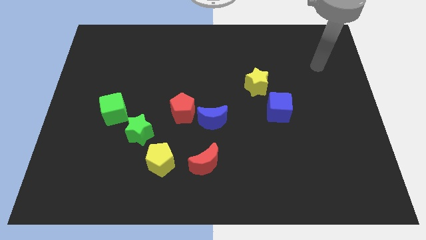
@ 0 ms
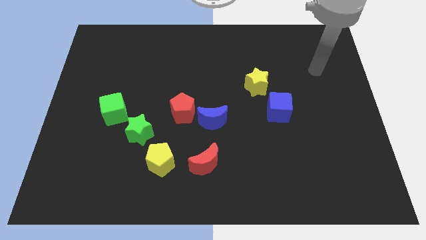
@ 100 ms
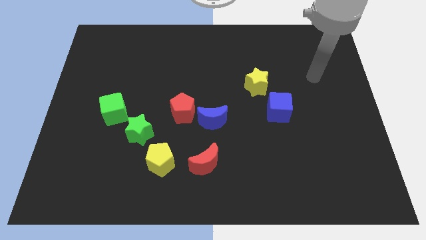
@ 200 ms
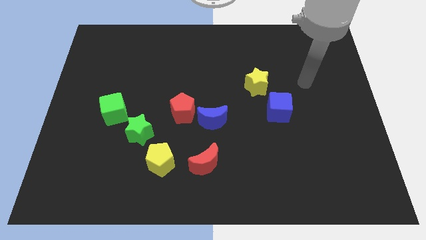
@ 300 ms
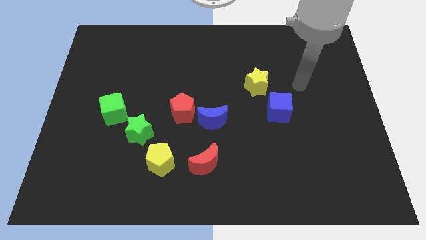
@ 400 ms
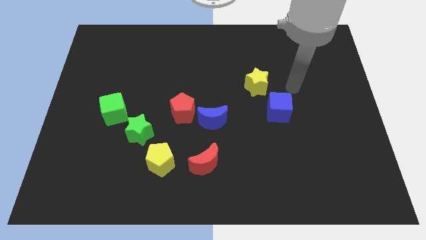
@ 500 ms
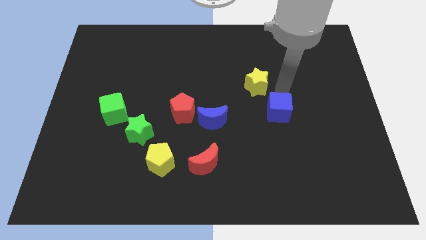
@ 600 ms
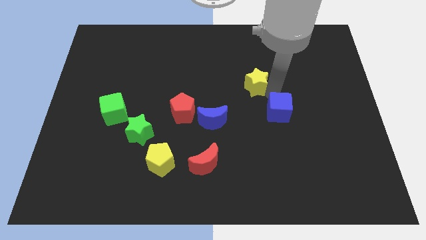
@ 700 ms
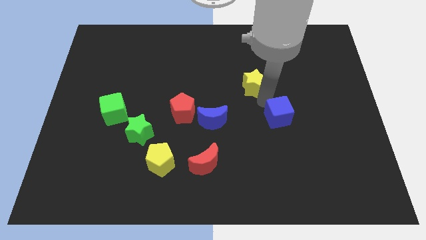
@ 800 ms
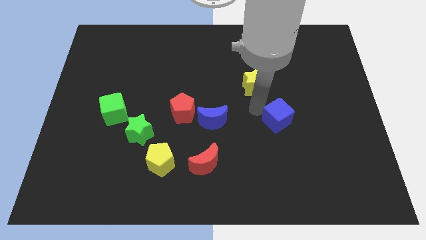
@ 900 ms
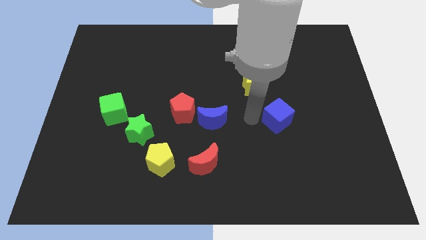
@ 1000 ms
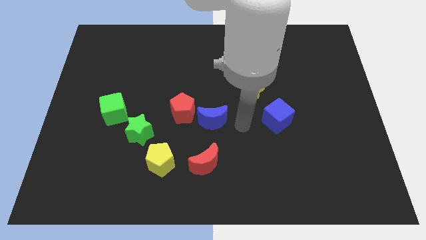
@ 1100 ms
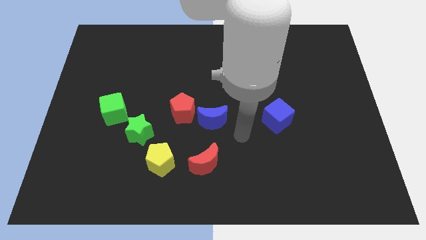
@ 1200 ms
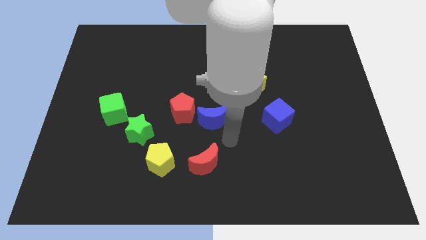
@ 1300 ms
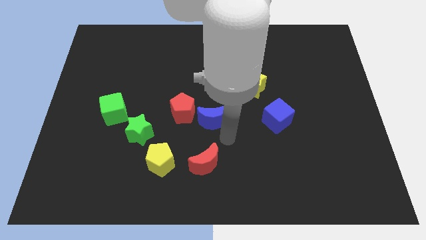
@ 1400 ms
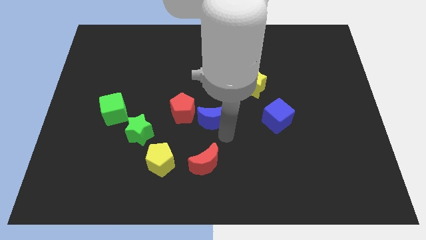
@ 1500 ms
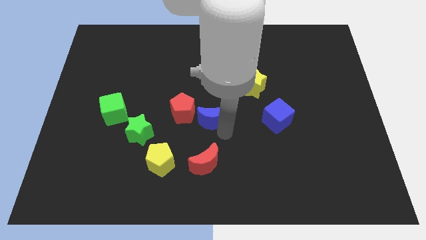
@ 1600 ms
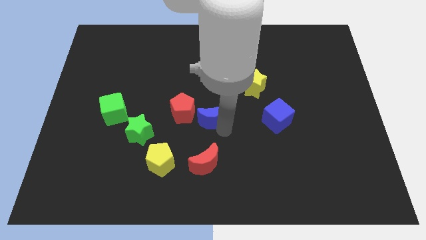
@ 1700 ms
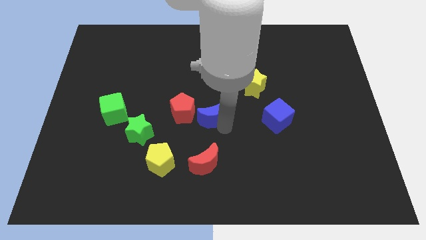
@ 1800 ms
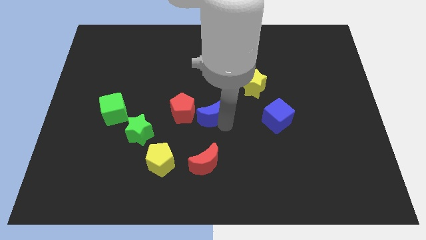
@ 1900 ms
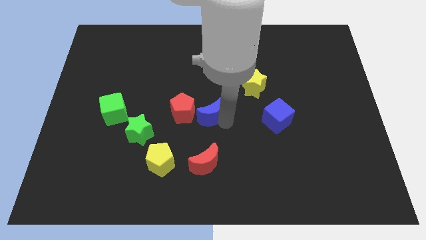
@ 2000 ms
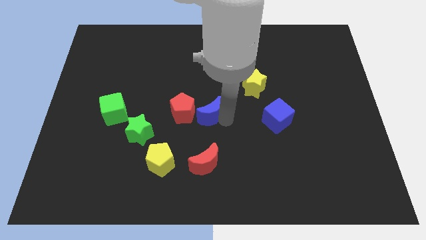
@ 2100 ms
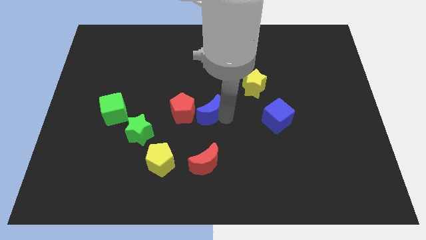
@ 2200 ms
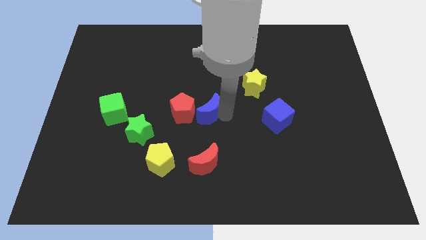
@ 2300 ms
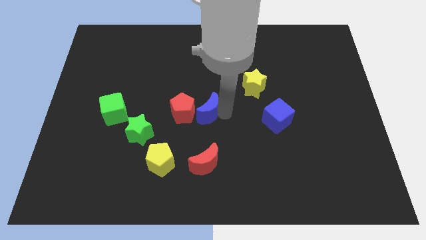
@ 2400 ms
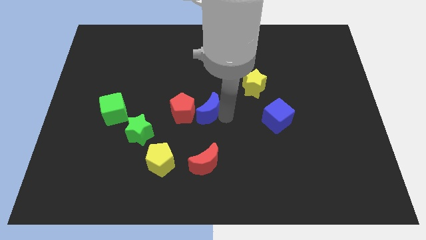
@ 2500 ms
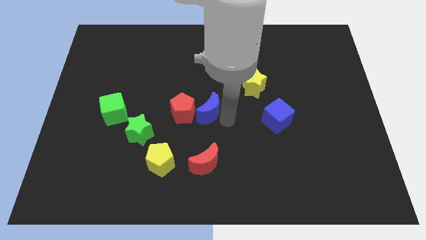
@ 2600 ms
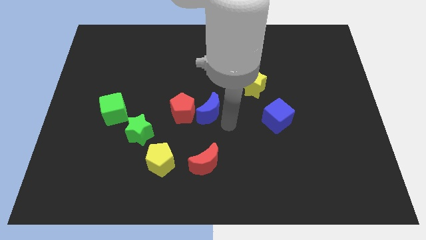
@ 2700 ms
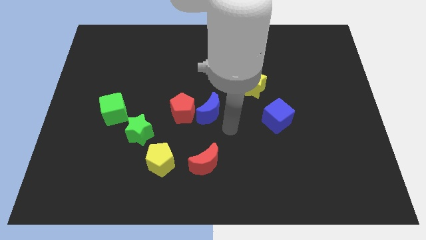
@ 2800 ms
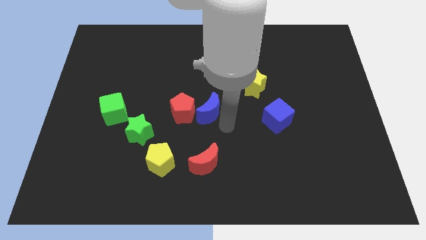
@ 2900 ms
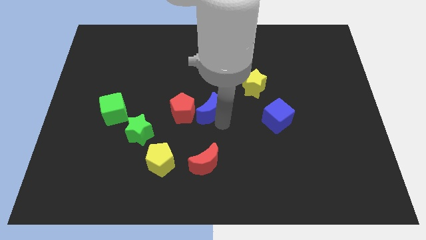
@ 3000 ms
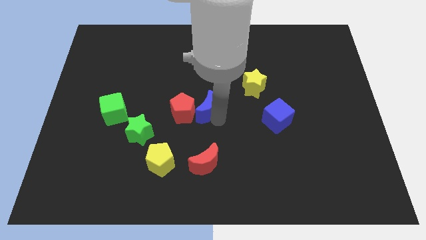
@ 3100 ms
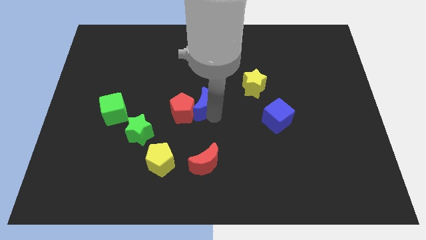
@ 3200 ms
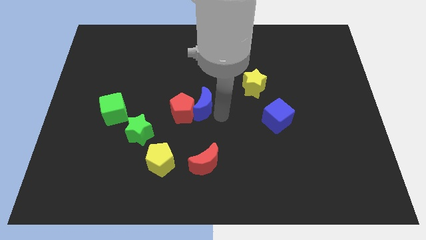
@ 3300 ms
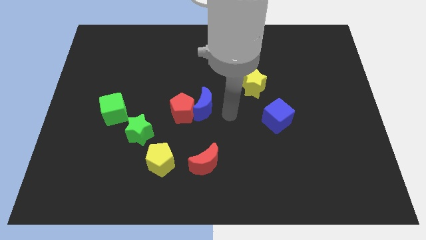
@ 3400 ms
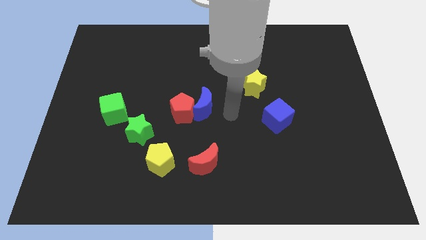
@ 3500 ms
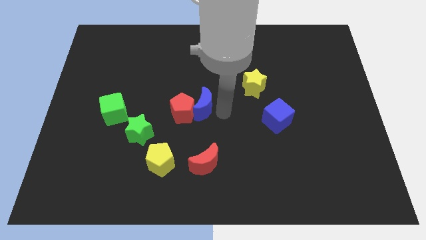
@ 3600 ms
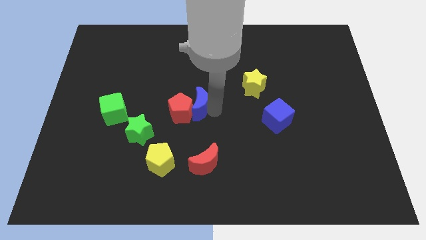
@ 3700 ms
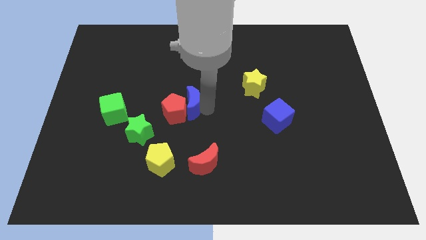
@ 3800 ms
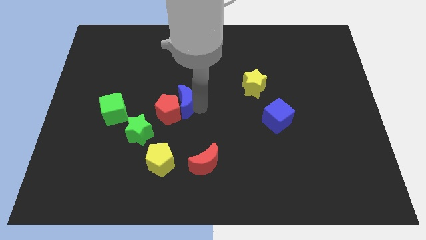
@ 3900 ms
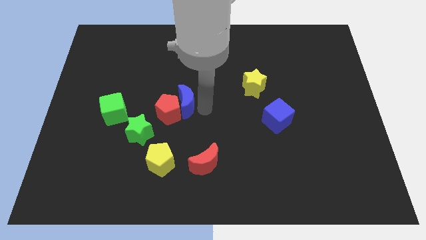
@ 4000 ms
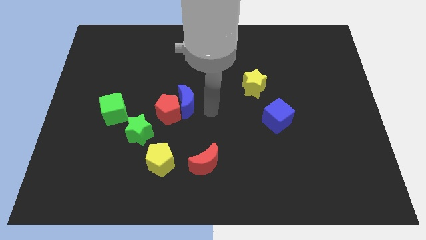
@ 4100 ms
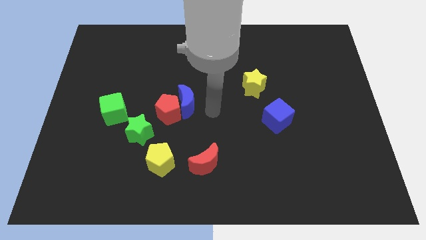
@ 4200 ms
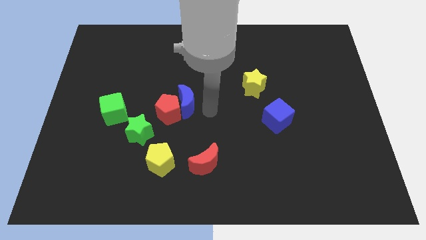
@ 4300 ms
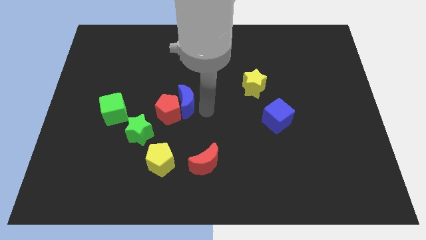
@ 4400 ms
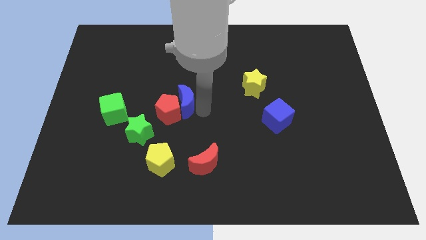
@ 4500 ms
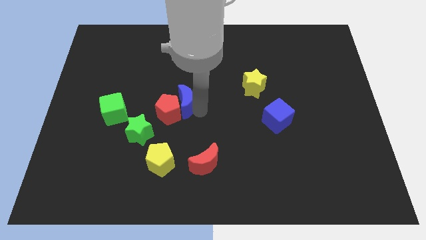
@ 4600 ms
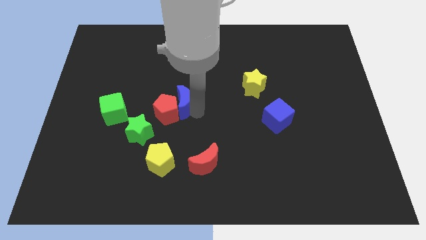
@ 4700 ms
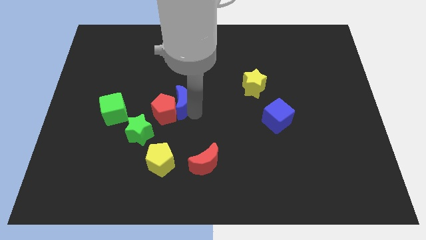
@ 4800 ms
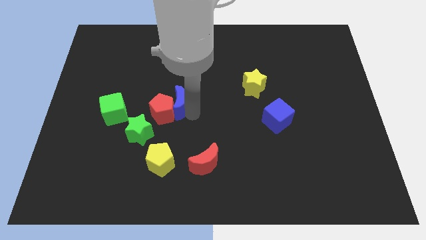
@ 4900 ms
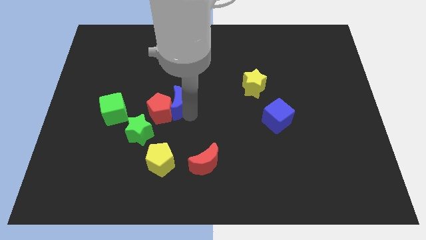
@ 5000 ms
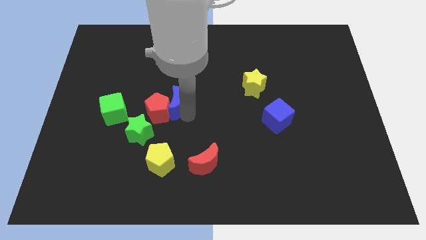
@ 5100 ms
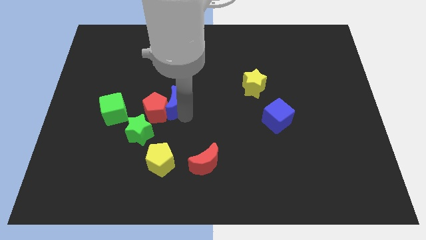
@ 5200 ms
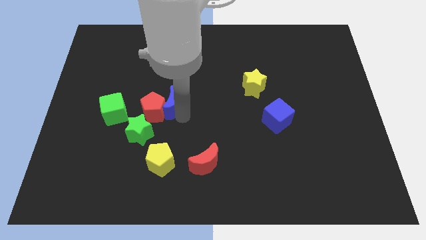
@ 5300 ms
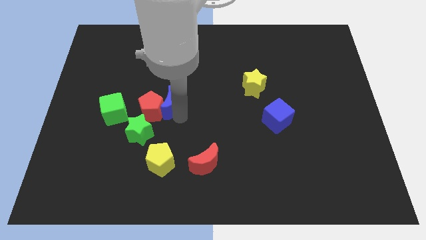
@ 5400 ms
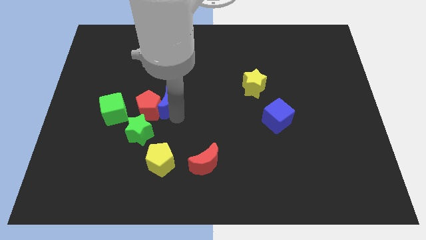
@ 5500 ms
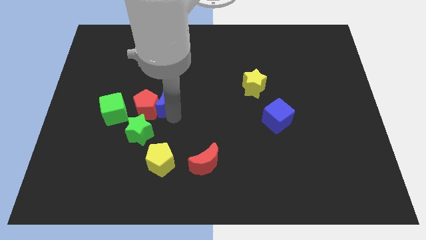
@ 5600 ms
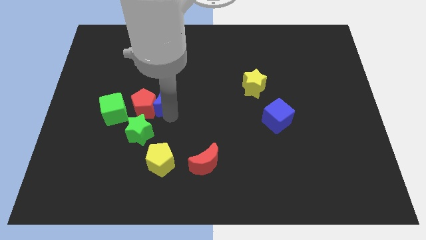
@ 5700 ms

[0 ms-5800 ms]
slide the blue moon to the top side of the green star

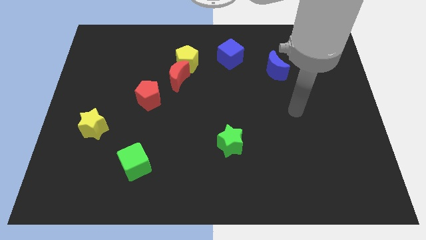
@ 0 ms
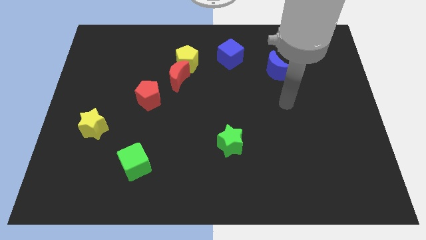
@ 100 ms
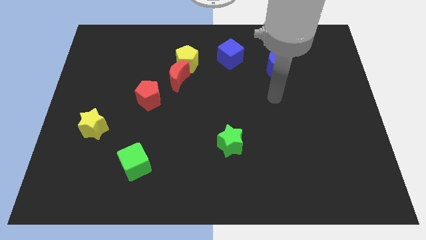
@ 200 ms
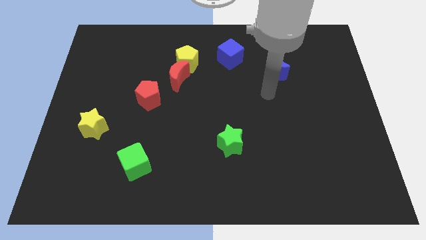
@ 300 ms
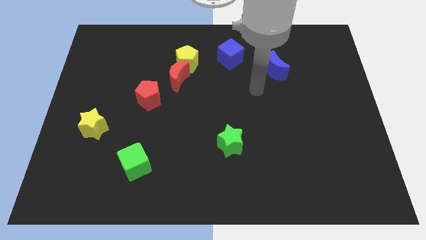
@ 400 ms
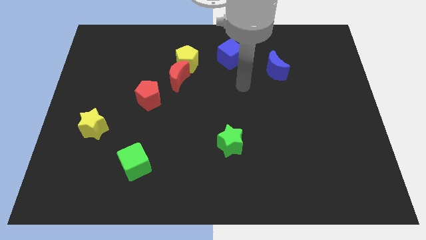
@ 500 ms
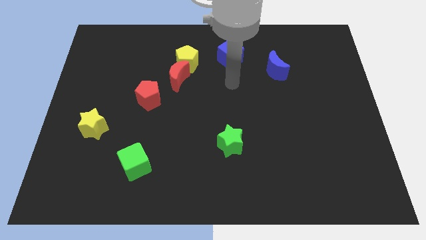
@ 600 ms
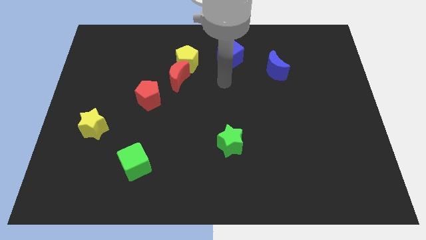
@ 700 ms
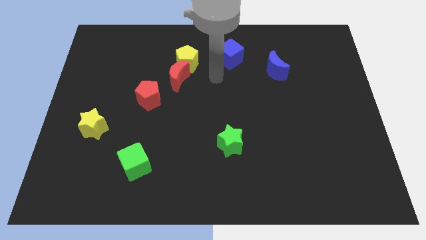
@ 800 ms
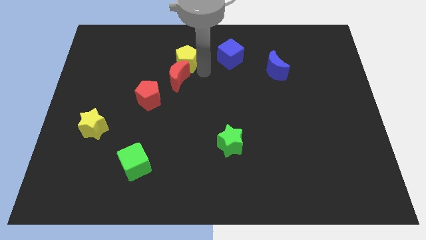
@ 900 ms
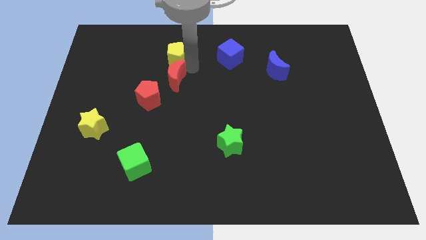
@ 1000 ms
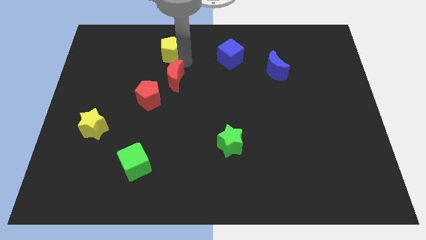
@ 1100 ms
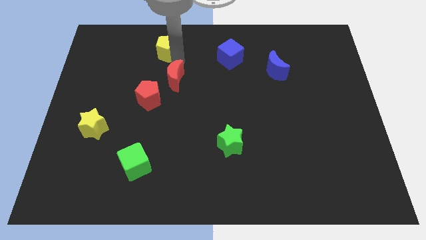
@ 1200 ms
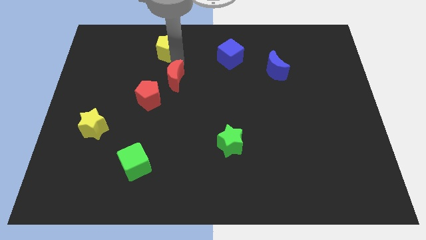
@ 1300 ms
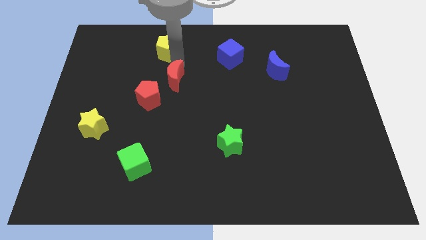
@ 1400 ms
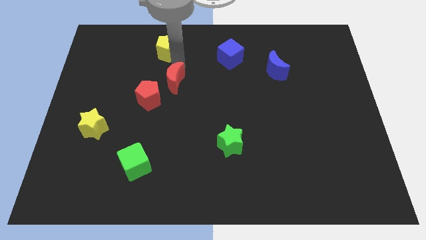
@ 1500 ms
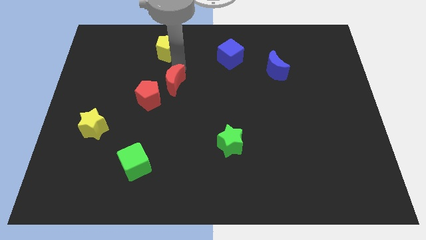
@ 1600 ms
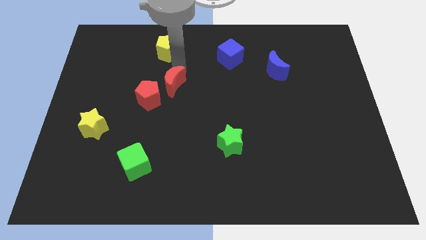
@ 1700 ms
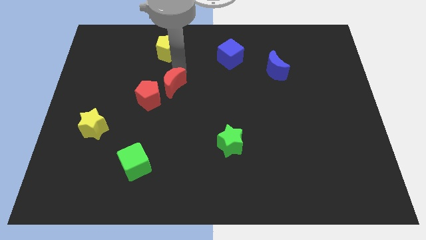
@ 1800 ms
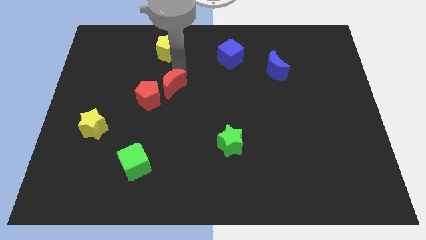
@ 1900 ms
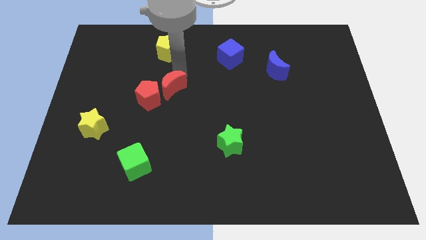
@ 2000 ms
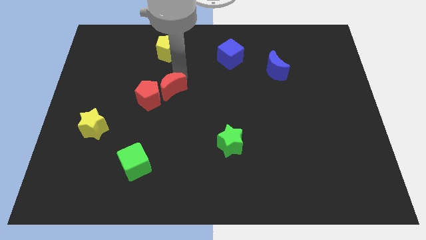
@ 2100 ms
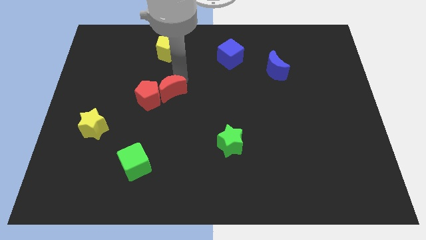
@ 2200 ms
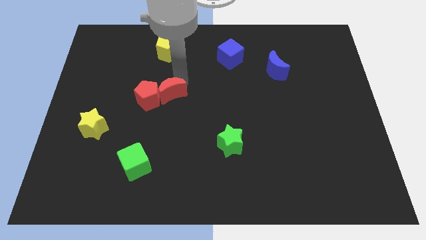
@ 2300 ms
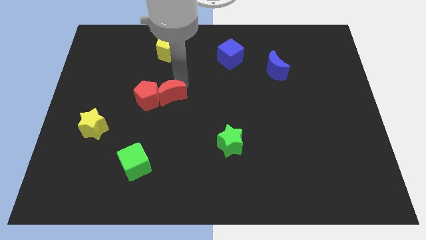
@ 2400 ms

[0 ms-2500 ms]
slide the red moon diagonally down and to the right of the red pentagon
